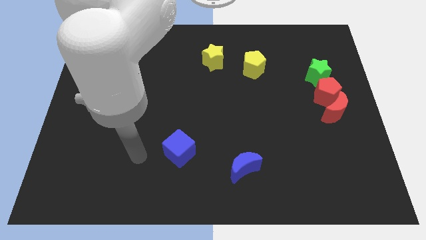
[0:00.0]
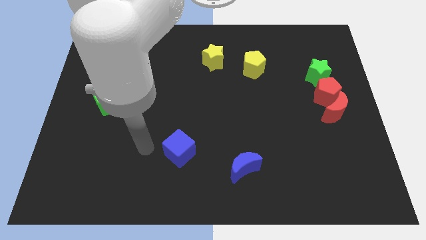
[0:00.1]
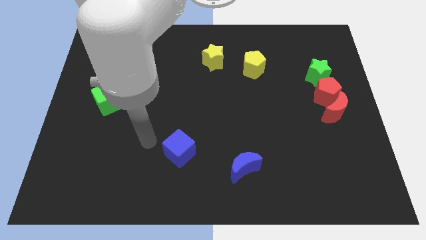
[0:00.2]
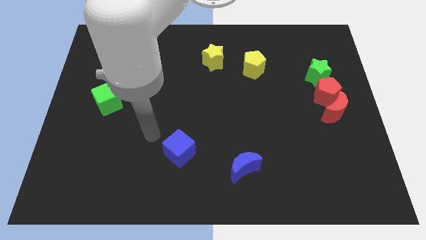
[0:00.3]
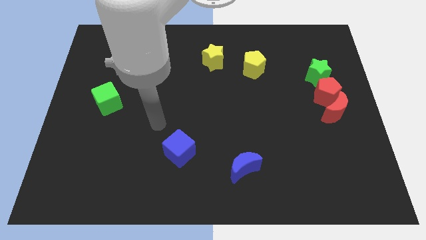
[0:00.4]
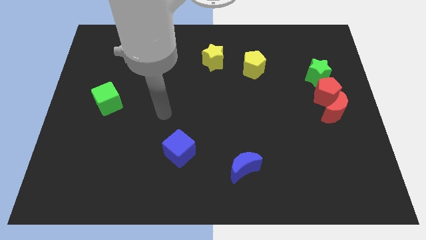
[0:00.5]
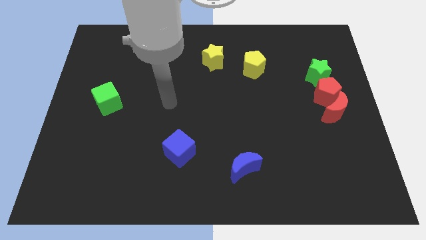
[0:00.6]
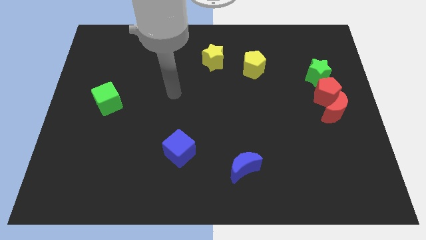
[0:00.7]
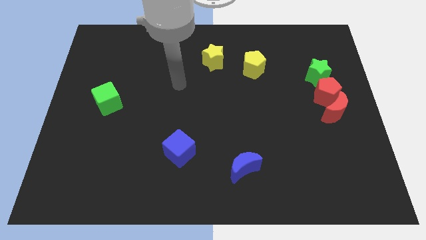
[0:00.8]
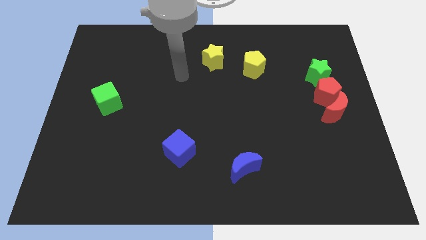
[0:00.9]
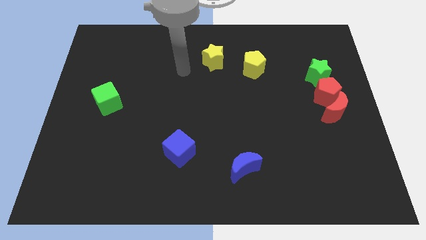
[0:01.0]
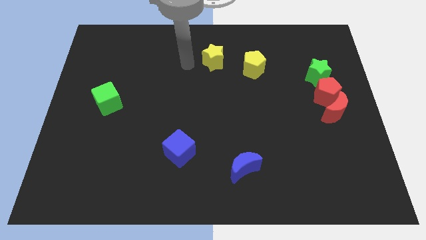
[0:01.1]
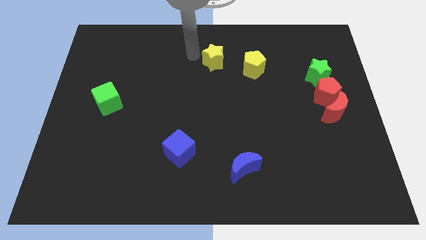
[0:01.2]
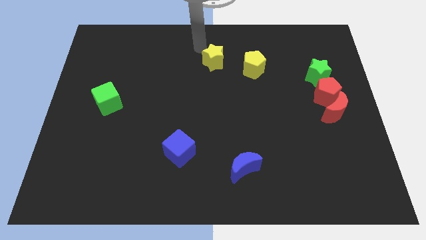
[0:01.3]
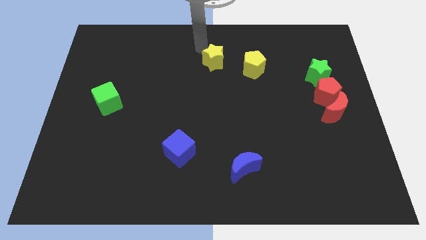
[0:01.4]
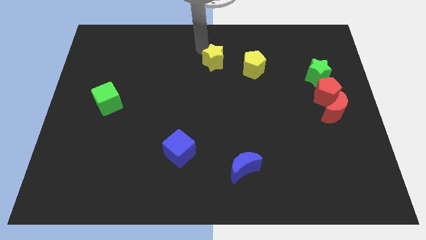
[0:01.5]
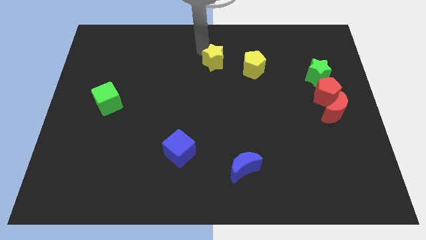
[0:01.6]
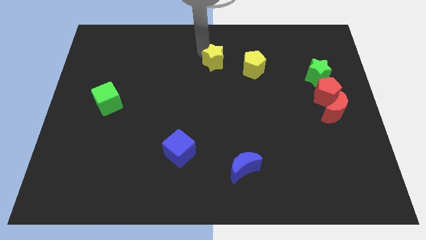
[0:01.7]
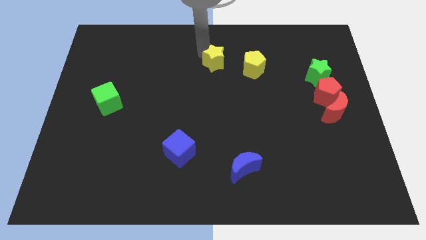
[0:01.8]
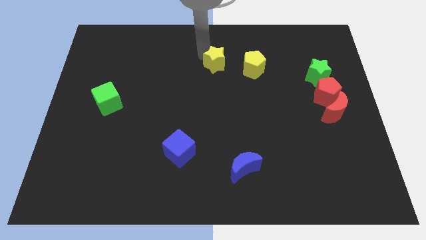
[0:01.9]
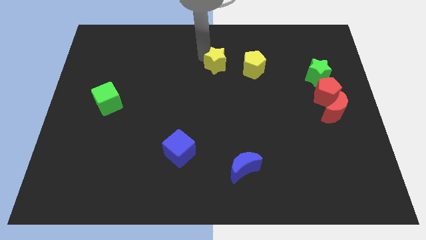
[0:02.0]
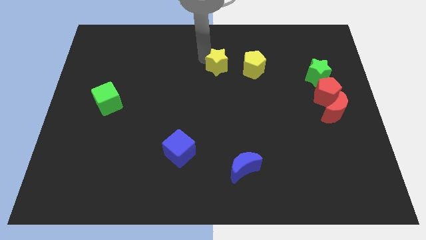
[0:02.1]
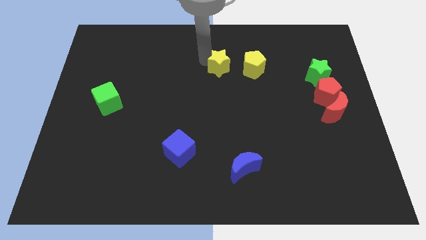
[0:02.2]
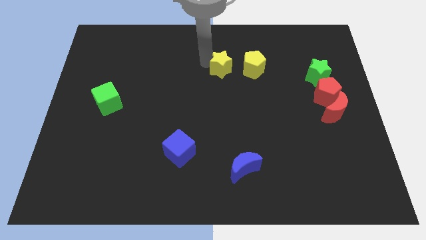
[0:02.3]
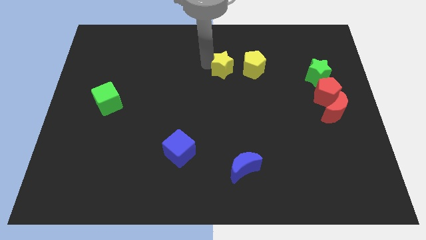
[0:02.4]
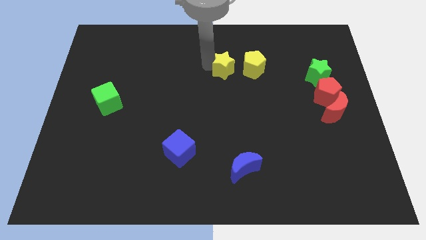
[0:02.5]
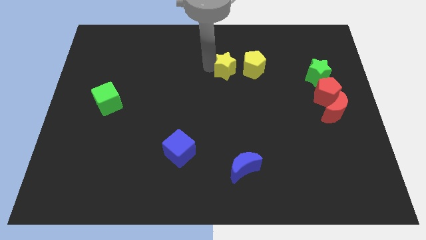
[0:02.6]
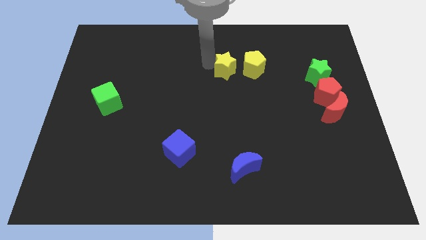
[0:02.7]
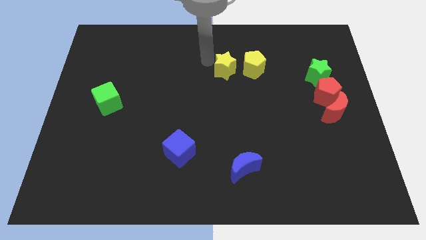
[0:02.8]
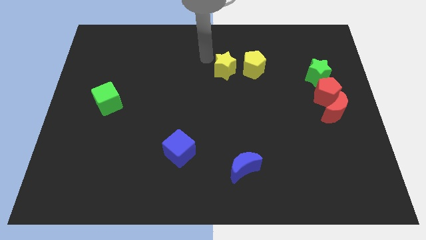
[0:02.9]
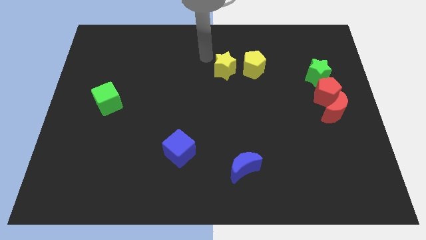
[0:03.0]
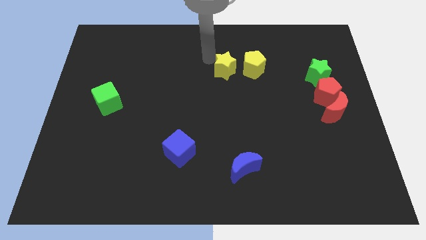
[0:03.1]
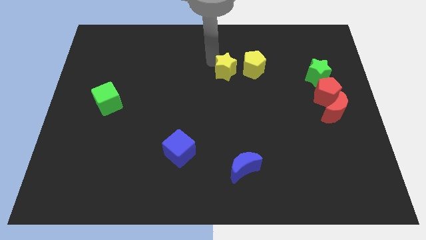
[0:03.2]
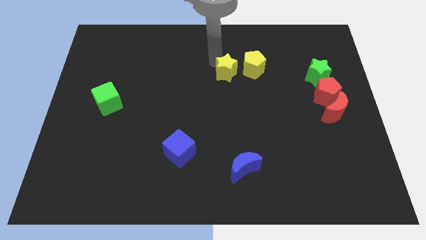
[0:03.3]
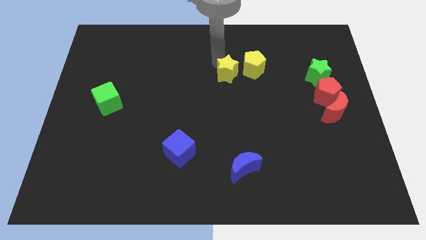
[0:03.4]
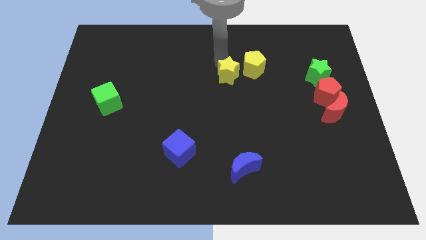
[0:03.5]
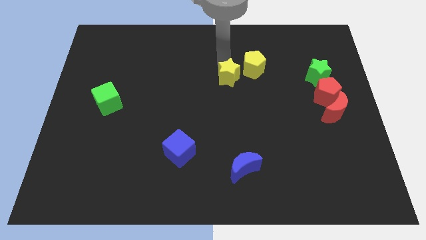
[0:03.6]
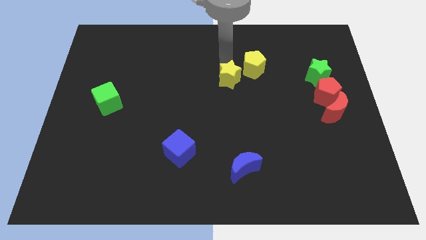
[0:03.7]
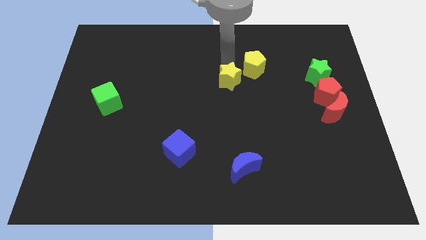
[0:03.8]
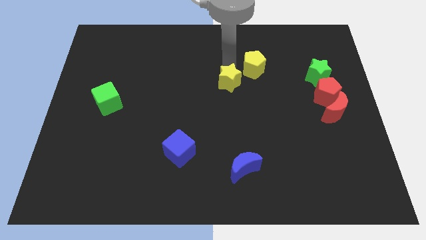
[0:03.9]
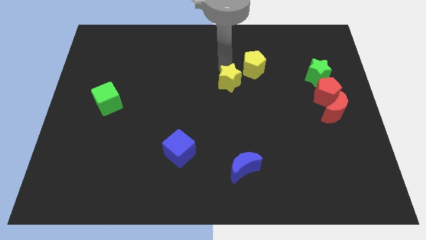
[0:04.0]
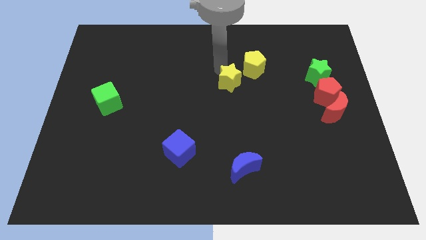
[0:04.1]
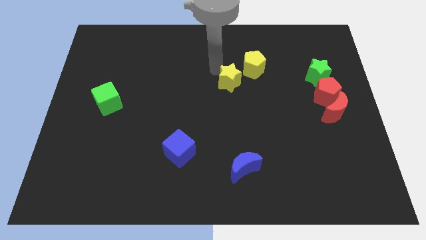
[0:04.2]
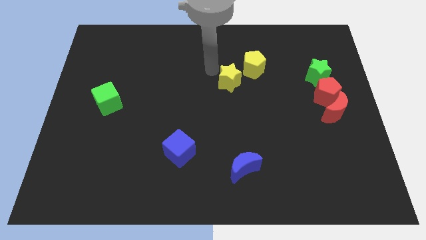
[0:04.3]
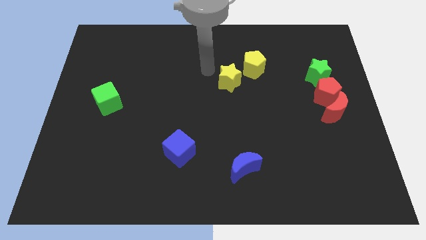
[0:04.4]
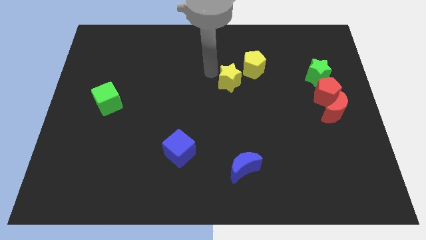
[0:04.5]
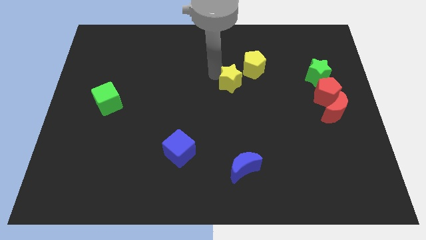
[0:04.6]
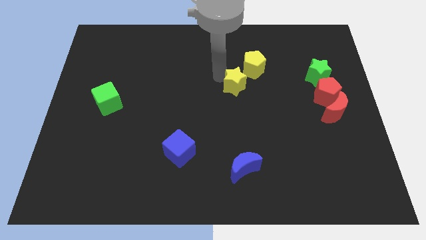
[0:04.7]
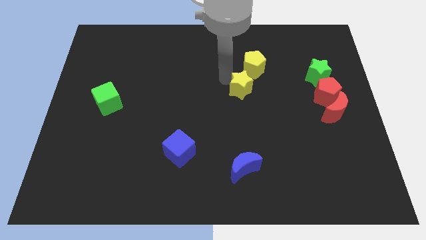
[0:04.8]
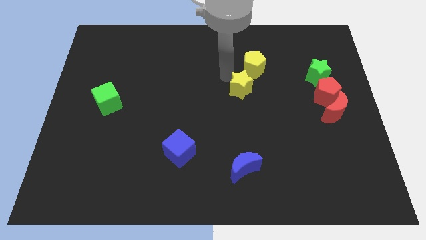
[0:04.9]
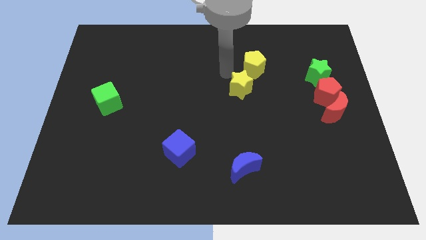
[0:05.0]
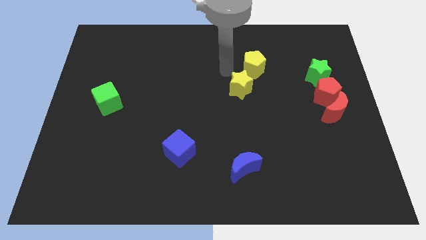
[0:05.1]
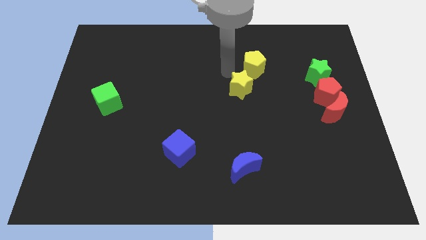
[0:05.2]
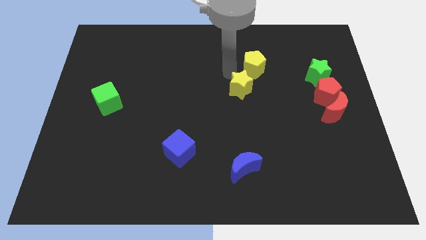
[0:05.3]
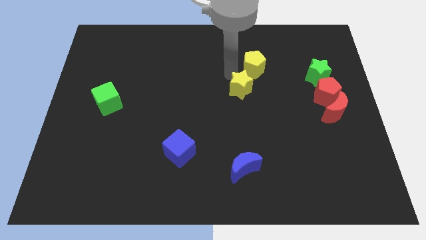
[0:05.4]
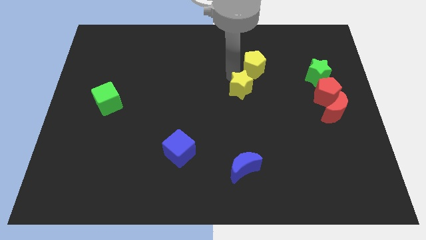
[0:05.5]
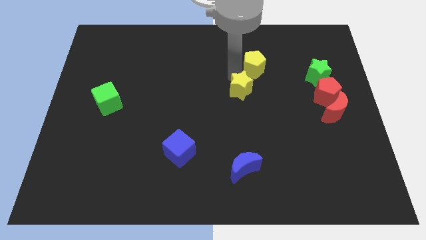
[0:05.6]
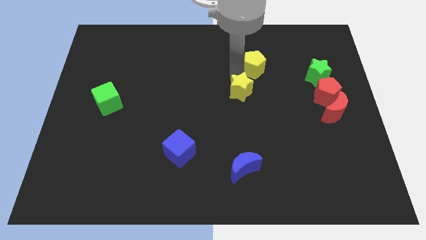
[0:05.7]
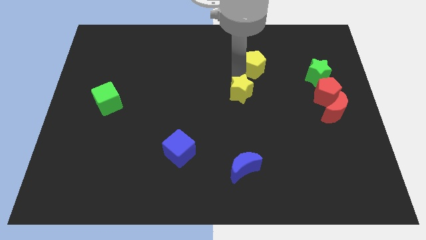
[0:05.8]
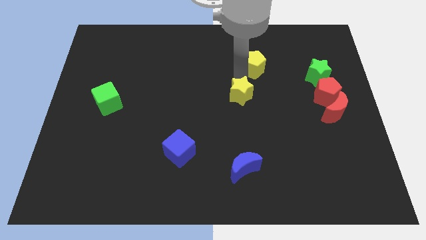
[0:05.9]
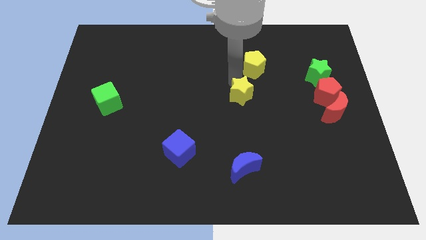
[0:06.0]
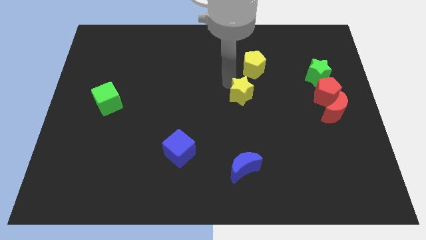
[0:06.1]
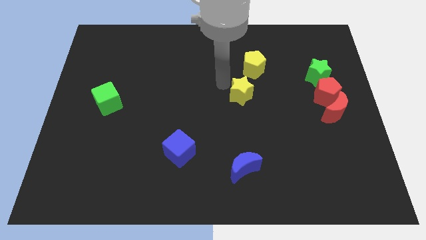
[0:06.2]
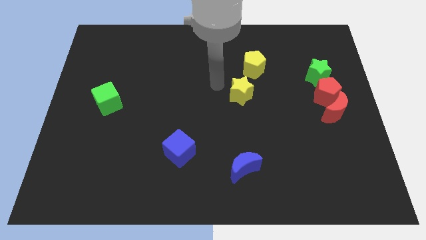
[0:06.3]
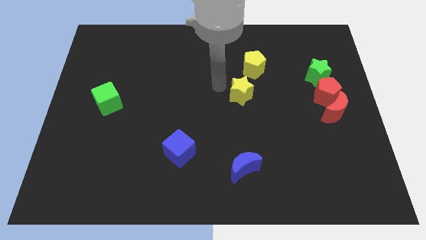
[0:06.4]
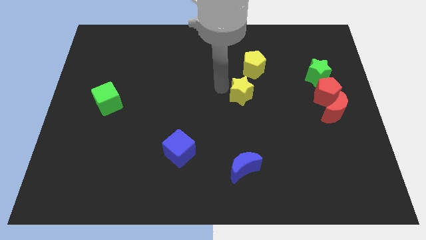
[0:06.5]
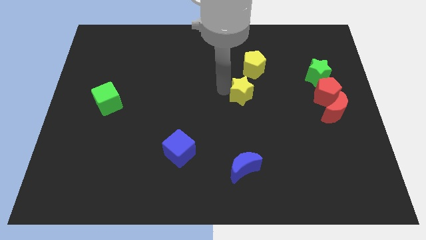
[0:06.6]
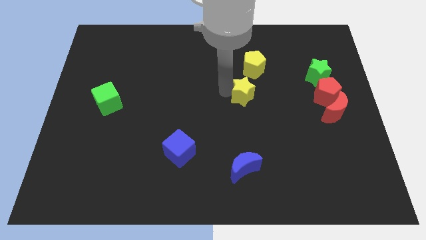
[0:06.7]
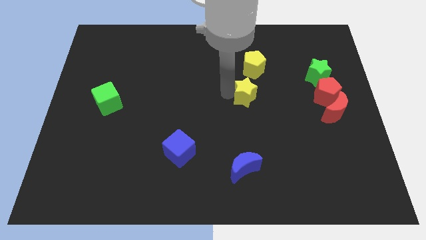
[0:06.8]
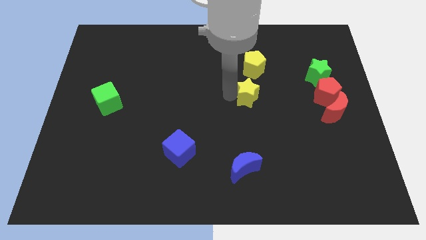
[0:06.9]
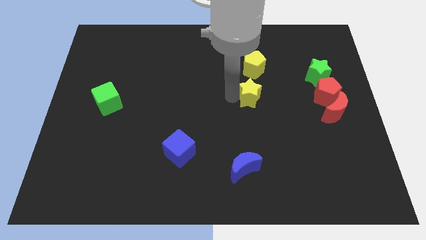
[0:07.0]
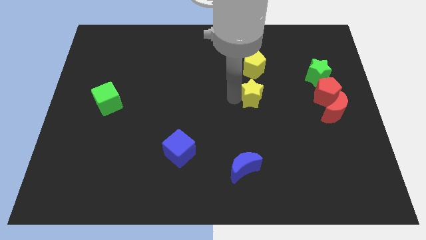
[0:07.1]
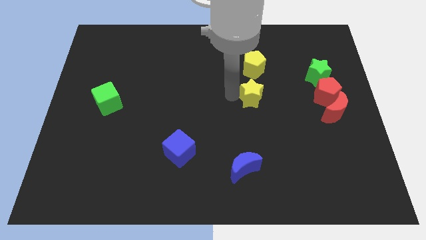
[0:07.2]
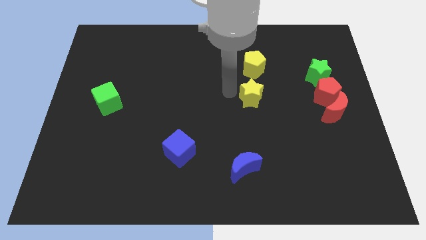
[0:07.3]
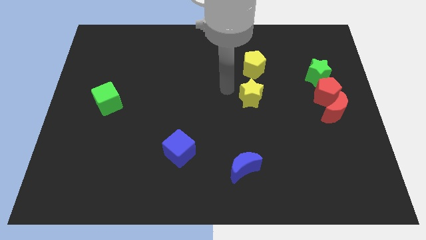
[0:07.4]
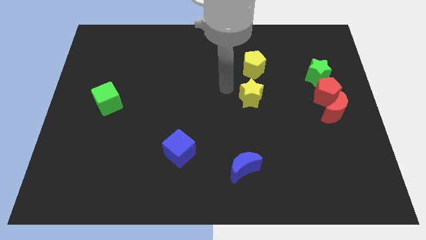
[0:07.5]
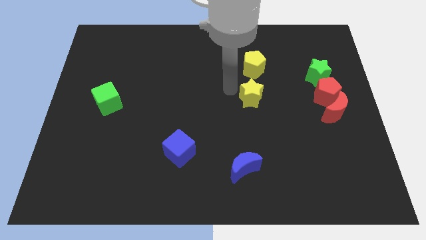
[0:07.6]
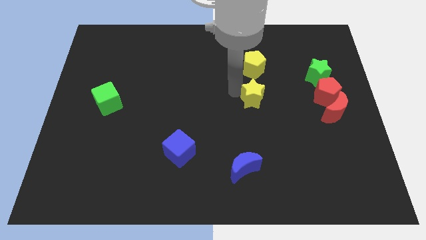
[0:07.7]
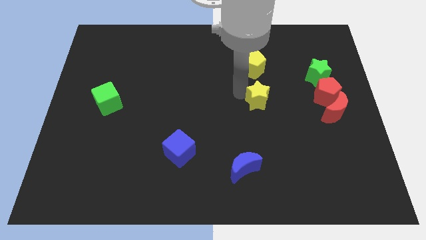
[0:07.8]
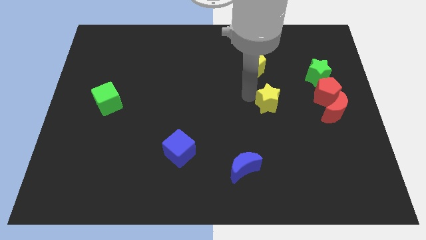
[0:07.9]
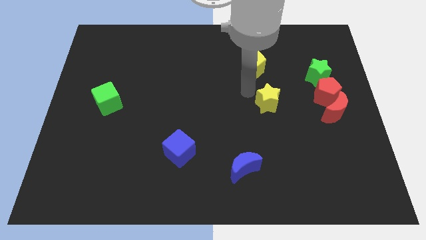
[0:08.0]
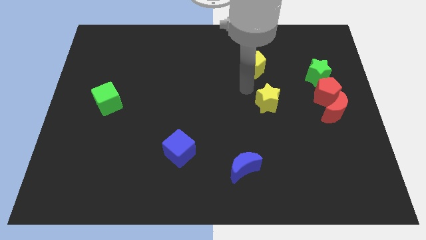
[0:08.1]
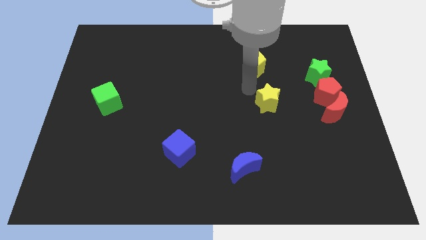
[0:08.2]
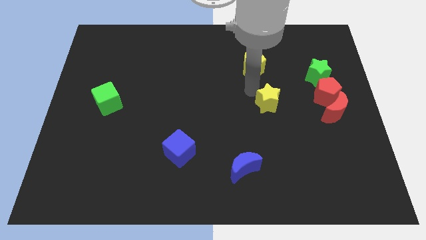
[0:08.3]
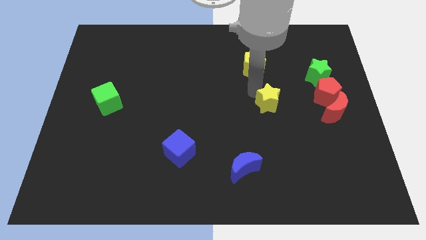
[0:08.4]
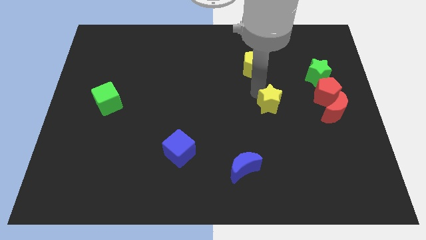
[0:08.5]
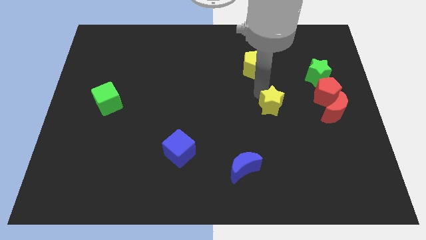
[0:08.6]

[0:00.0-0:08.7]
push the yellow star down and to the right

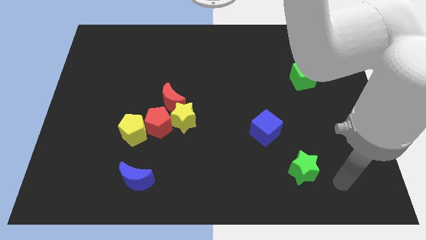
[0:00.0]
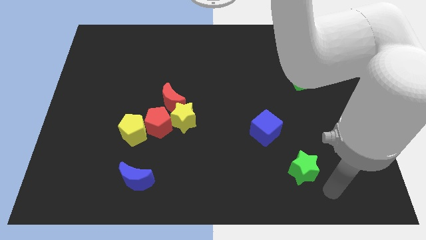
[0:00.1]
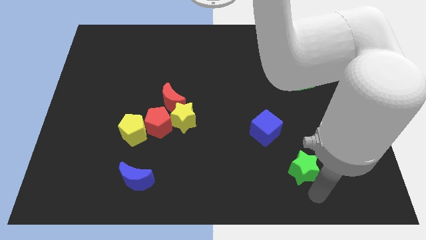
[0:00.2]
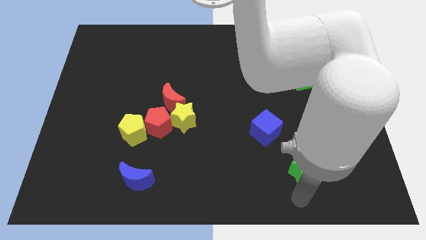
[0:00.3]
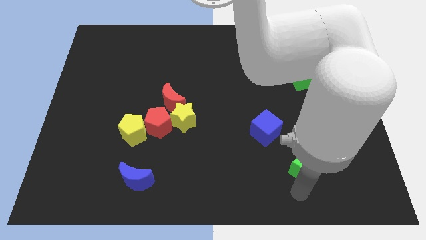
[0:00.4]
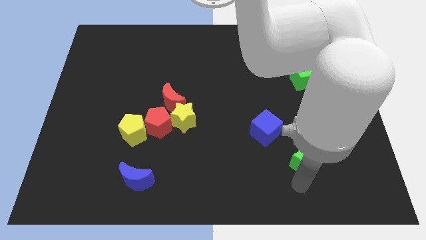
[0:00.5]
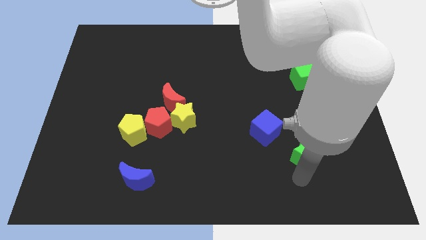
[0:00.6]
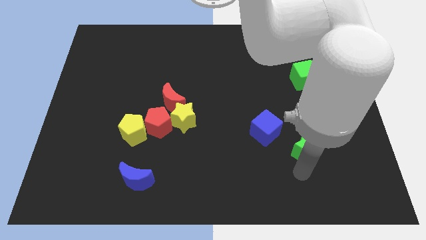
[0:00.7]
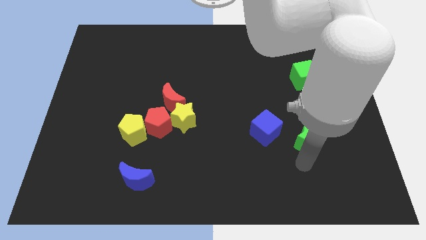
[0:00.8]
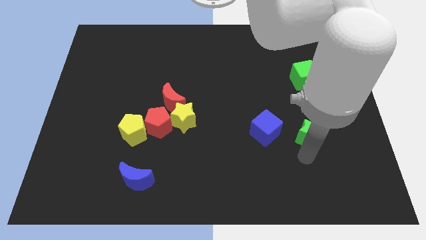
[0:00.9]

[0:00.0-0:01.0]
slightly move the green star up
